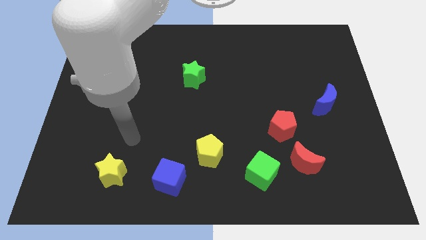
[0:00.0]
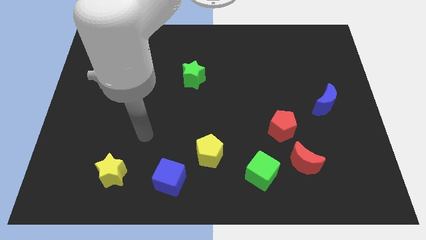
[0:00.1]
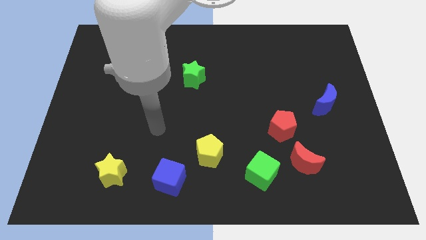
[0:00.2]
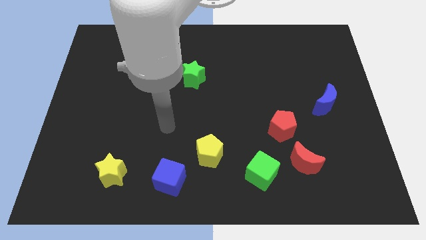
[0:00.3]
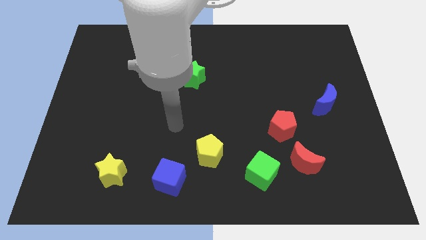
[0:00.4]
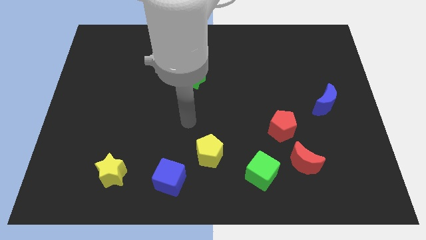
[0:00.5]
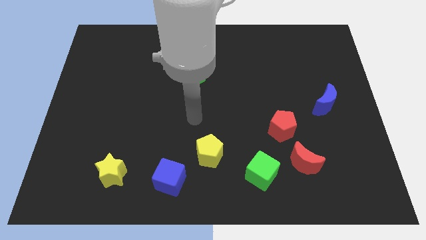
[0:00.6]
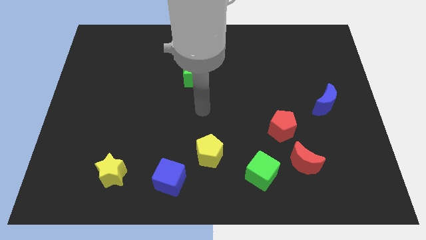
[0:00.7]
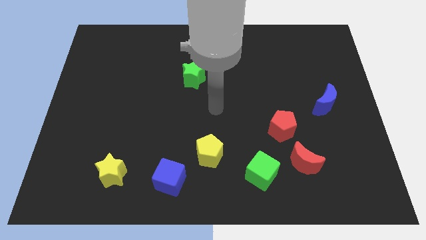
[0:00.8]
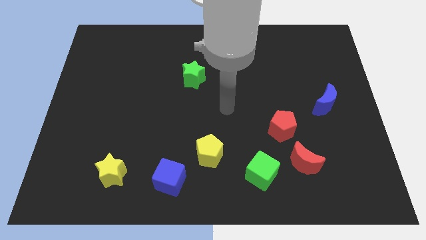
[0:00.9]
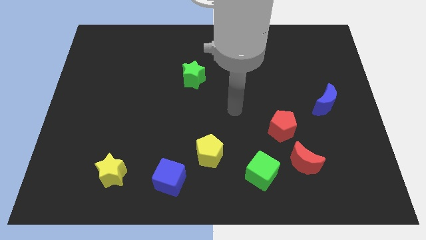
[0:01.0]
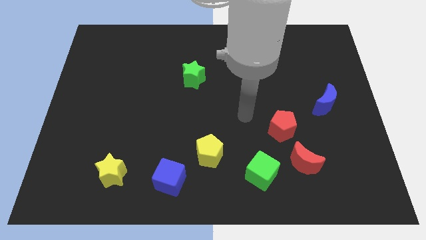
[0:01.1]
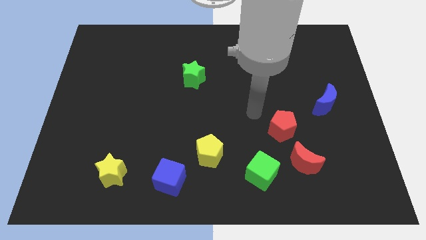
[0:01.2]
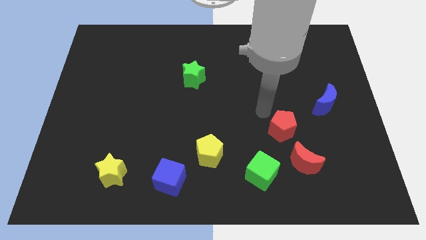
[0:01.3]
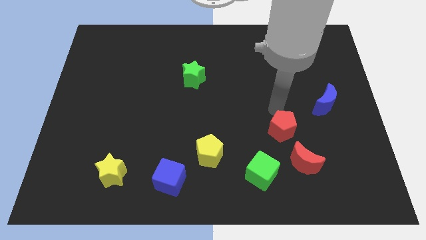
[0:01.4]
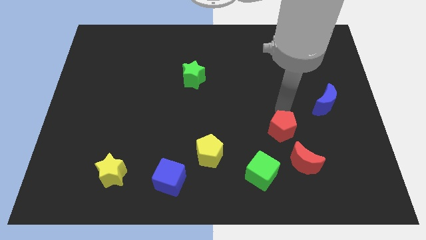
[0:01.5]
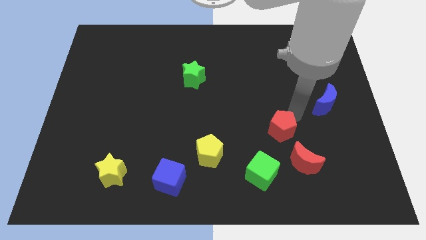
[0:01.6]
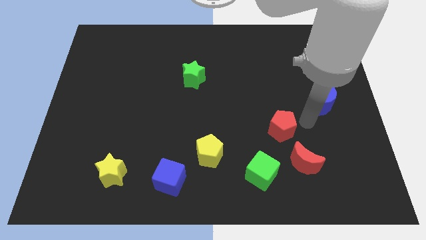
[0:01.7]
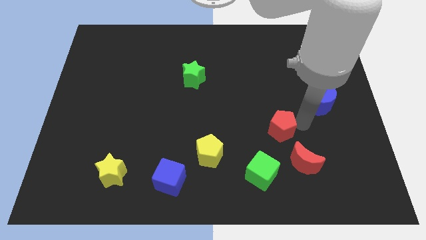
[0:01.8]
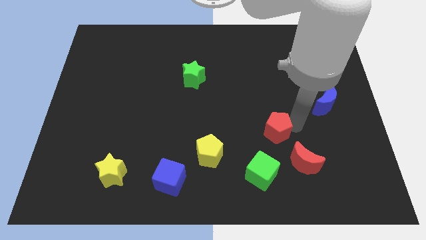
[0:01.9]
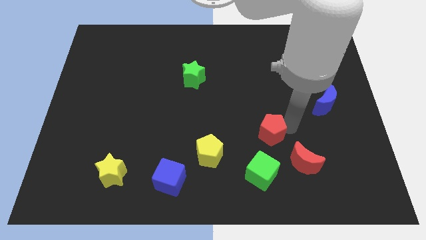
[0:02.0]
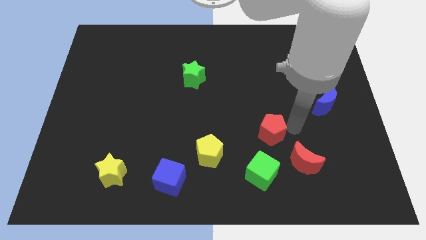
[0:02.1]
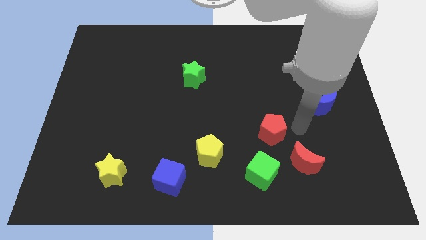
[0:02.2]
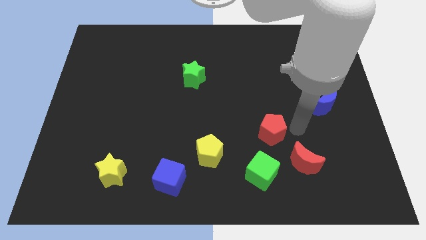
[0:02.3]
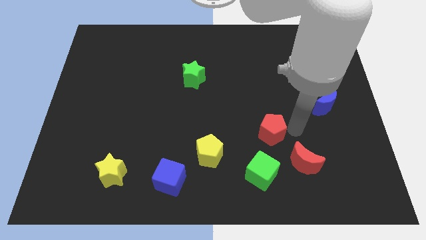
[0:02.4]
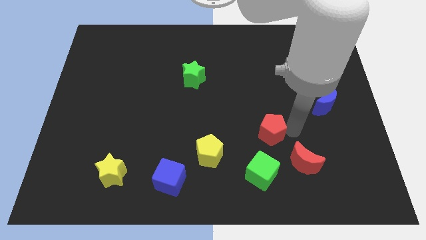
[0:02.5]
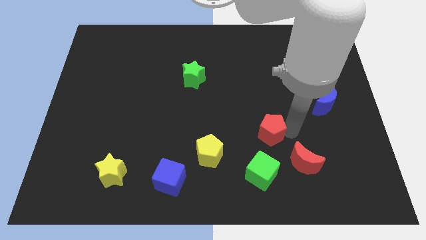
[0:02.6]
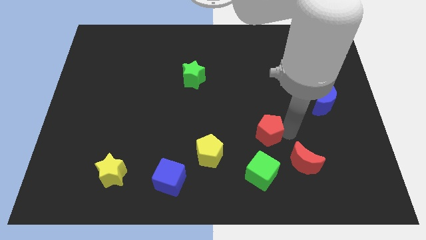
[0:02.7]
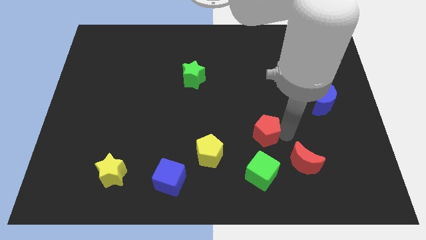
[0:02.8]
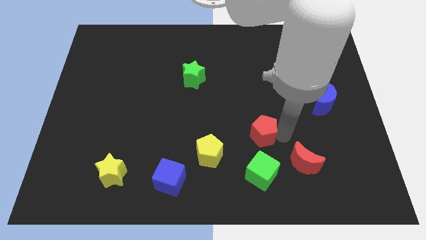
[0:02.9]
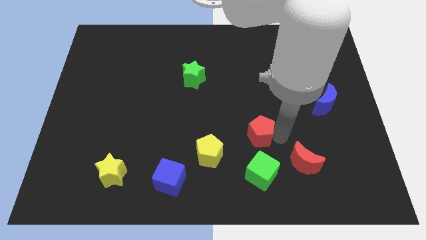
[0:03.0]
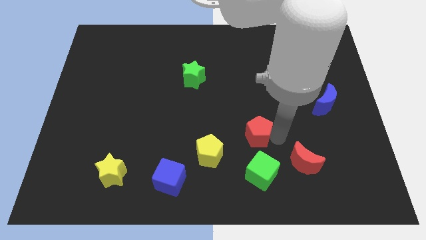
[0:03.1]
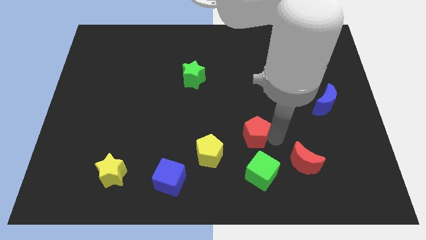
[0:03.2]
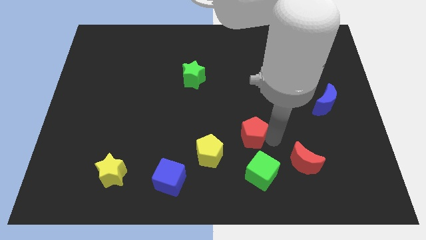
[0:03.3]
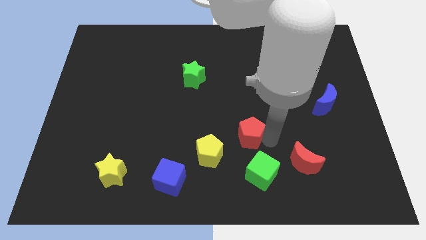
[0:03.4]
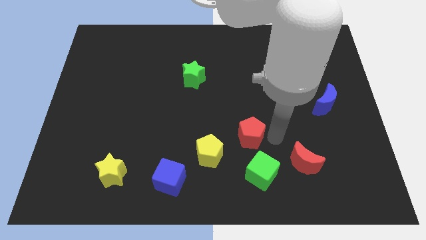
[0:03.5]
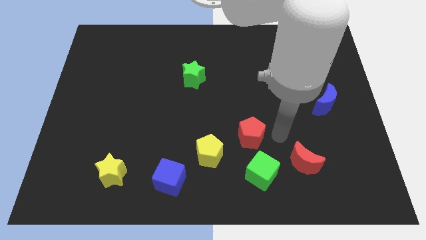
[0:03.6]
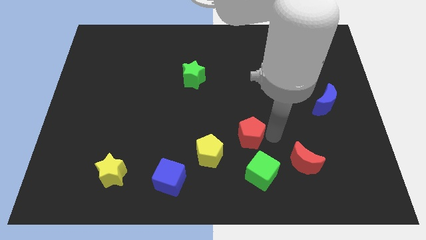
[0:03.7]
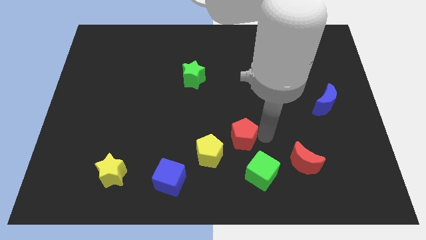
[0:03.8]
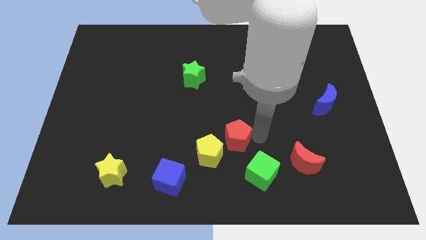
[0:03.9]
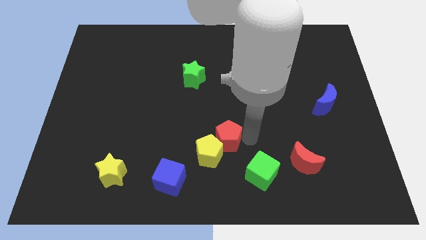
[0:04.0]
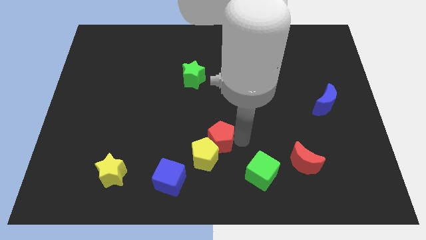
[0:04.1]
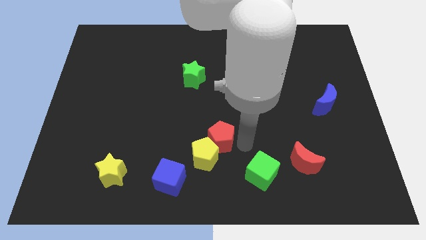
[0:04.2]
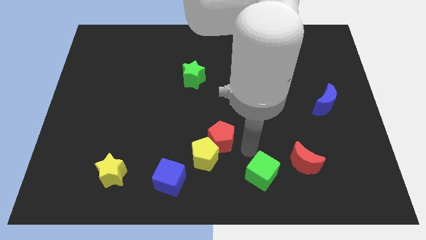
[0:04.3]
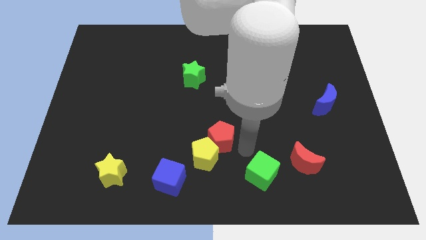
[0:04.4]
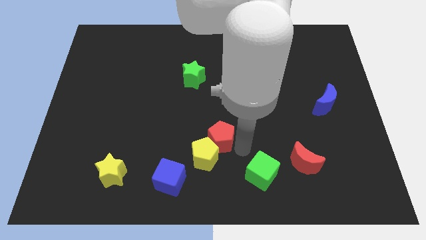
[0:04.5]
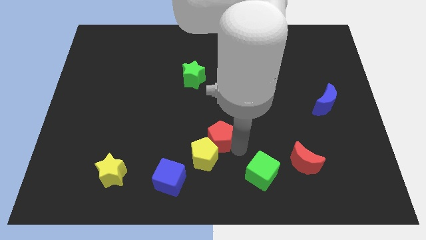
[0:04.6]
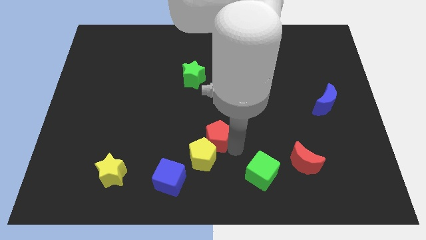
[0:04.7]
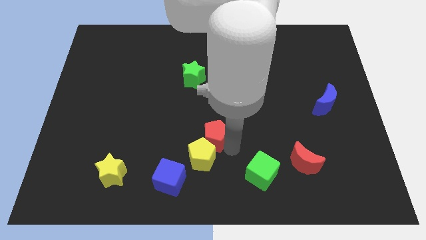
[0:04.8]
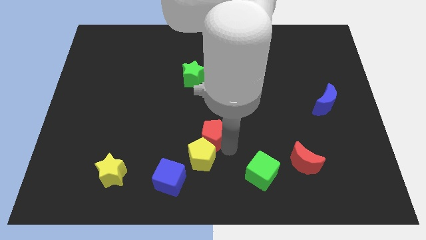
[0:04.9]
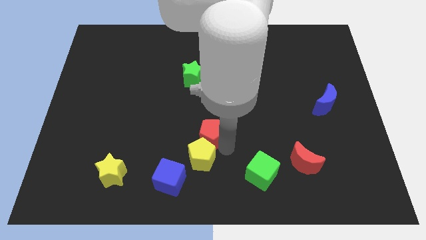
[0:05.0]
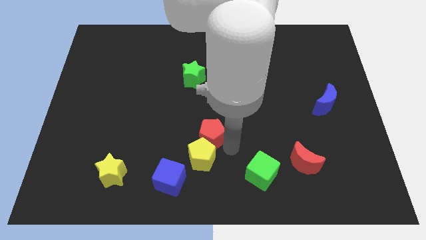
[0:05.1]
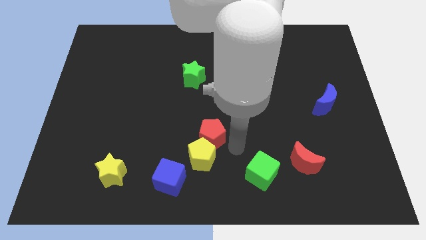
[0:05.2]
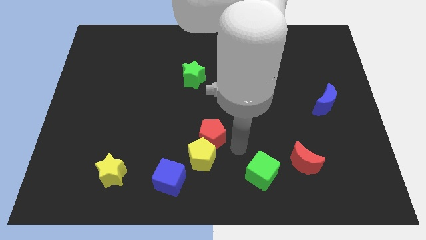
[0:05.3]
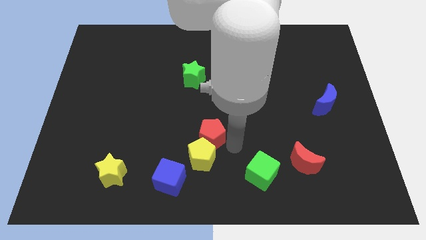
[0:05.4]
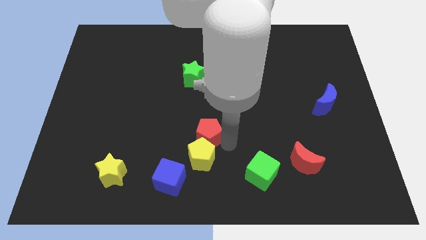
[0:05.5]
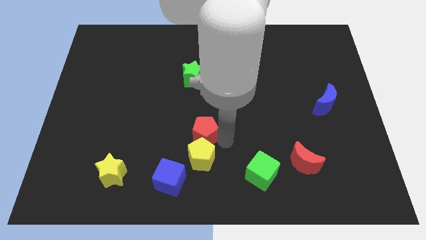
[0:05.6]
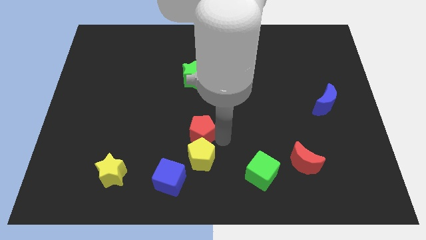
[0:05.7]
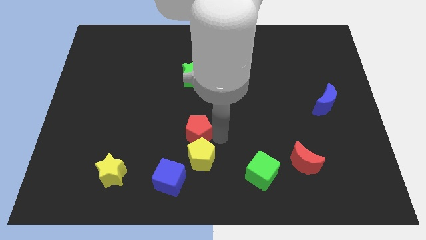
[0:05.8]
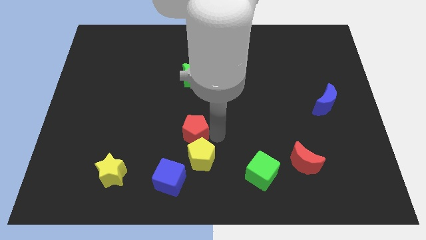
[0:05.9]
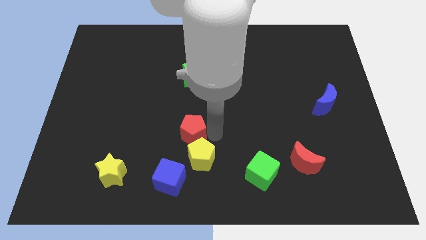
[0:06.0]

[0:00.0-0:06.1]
slide the red pentagon left

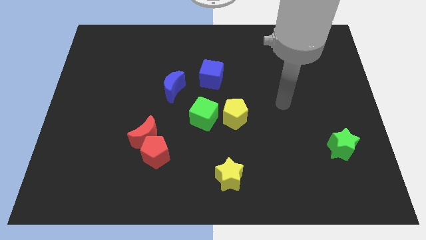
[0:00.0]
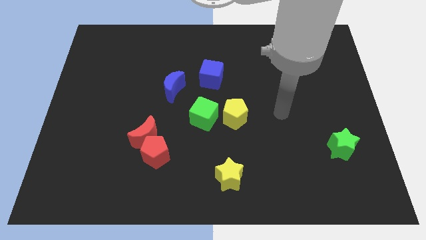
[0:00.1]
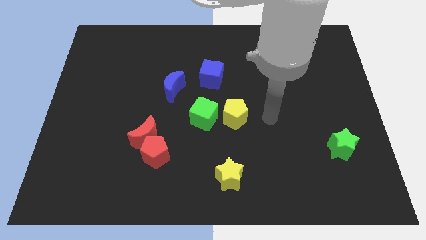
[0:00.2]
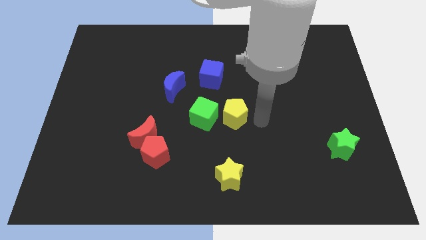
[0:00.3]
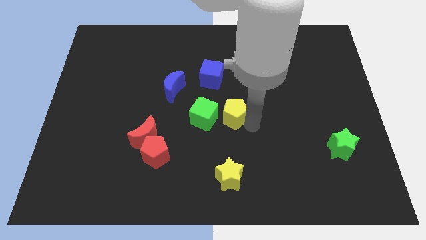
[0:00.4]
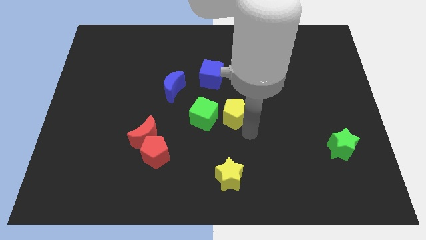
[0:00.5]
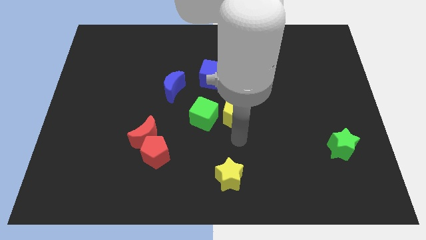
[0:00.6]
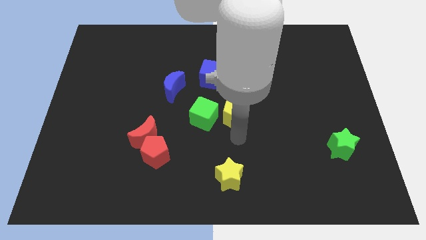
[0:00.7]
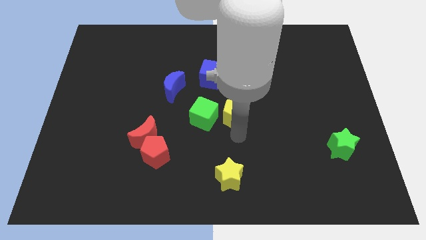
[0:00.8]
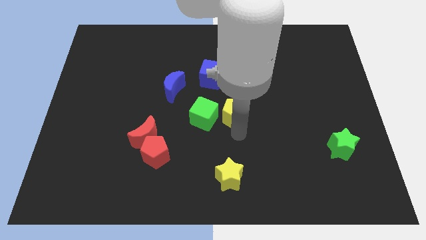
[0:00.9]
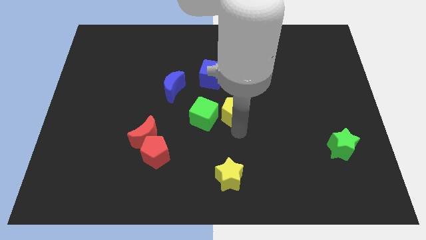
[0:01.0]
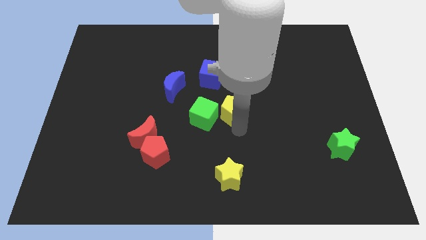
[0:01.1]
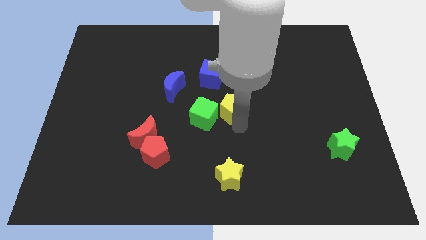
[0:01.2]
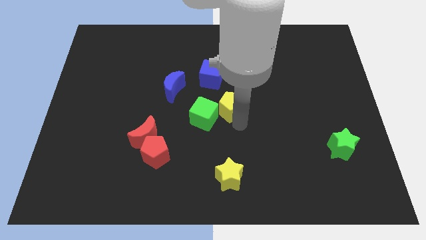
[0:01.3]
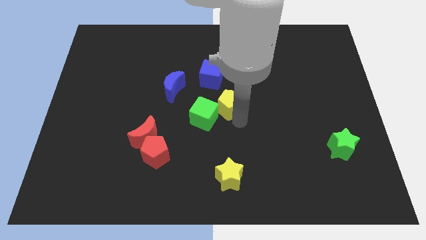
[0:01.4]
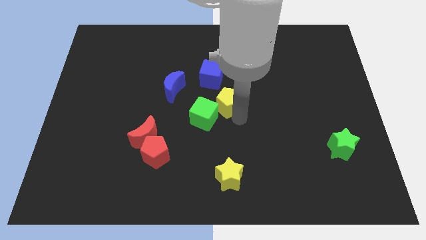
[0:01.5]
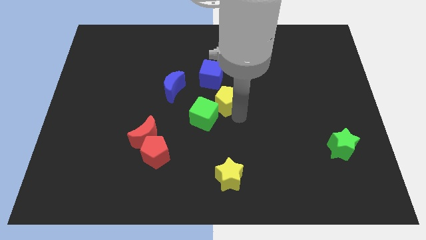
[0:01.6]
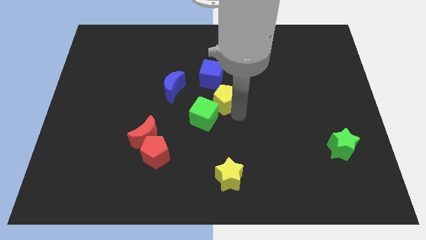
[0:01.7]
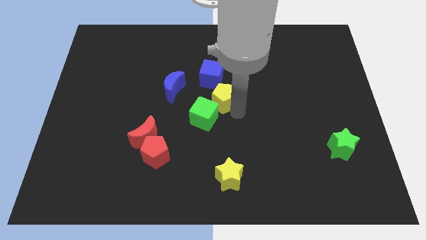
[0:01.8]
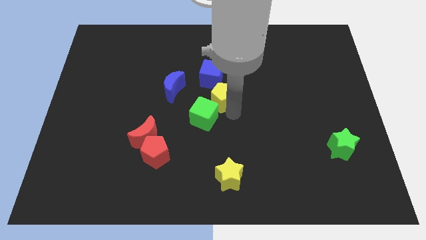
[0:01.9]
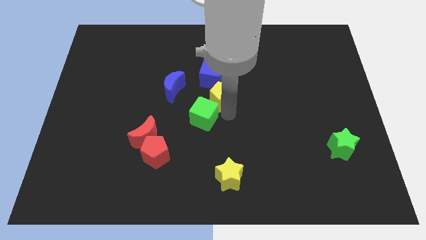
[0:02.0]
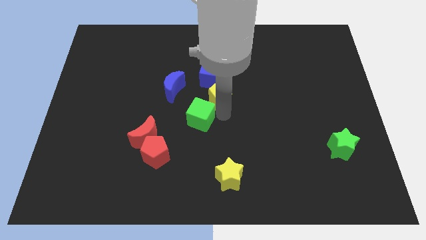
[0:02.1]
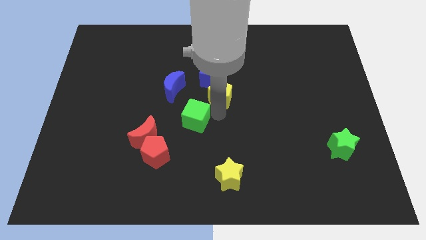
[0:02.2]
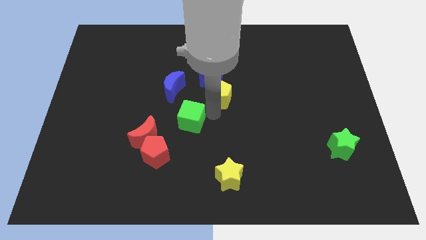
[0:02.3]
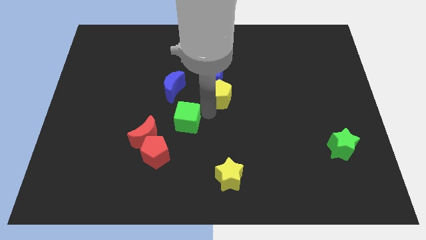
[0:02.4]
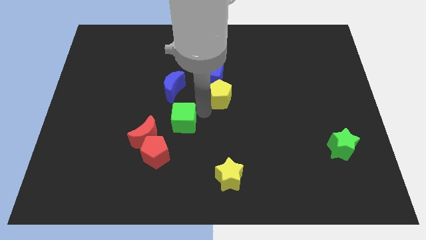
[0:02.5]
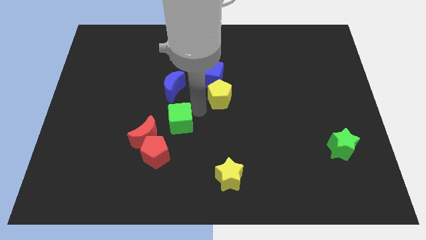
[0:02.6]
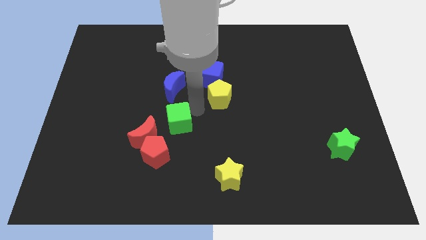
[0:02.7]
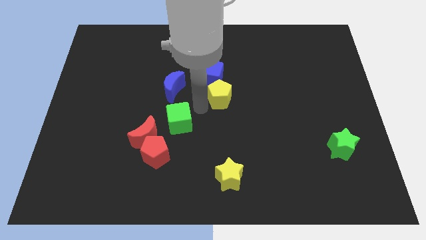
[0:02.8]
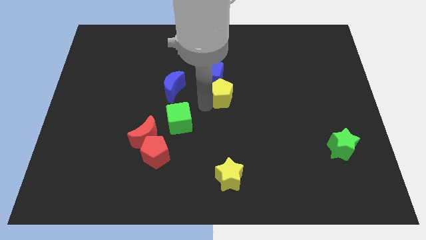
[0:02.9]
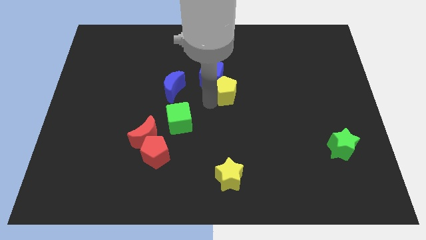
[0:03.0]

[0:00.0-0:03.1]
push the yellow pentagon somewhat upwards
